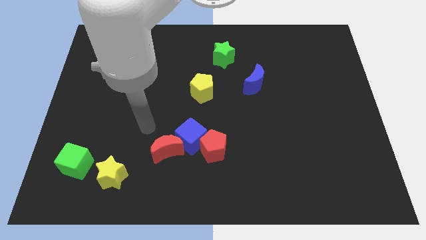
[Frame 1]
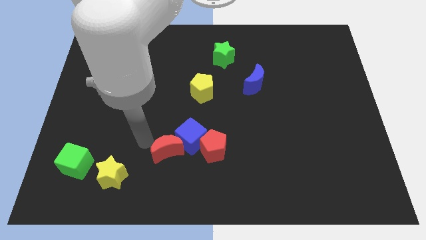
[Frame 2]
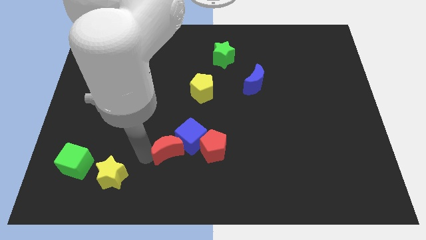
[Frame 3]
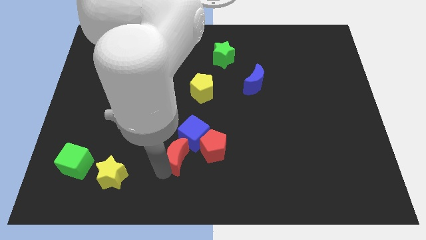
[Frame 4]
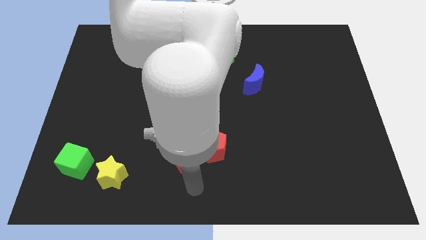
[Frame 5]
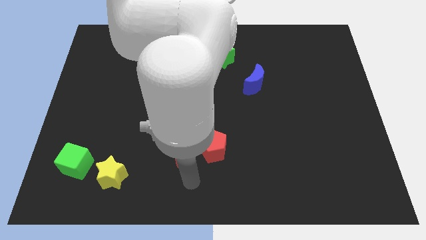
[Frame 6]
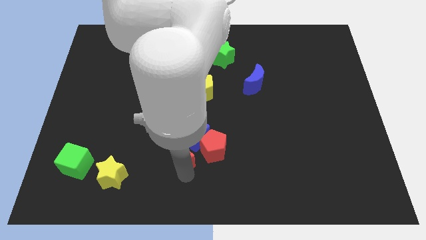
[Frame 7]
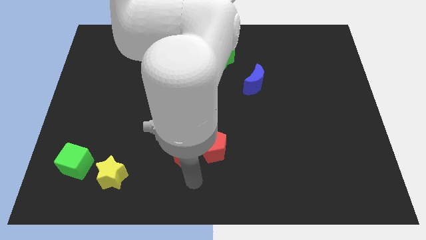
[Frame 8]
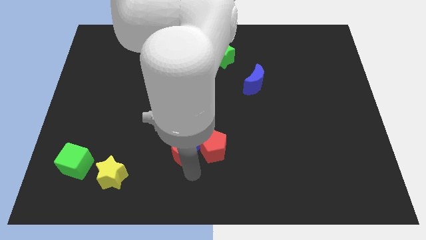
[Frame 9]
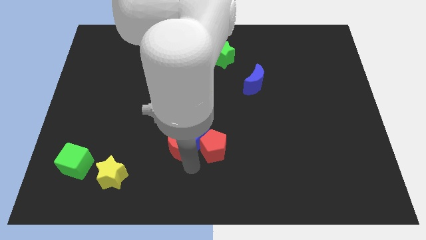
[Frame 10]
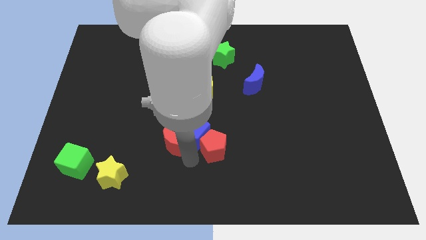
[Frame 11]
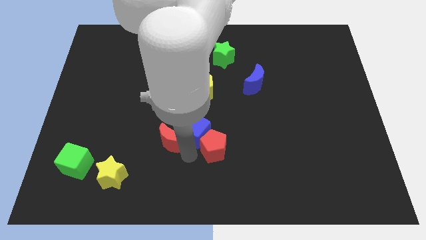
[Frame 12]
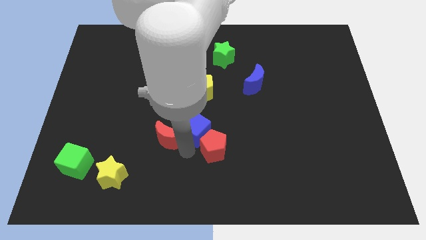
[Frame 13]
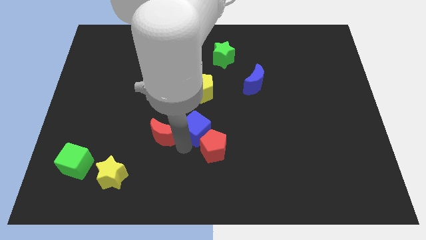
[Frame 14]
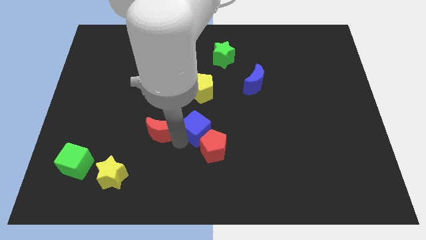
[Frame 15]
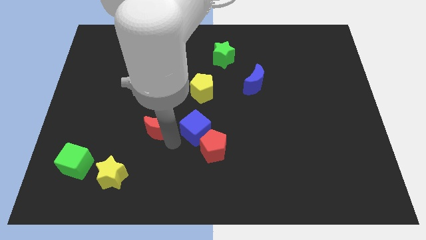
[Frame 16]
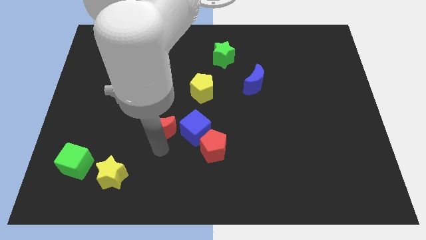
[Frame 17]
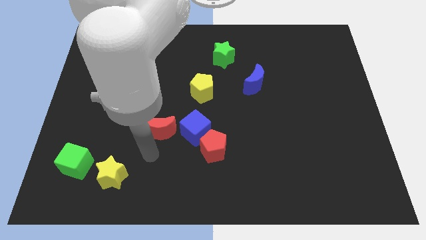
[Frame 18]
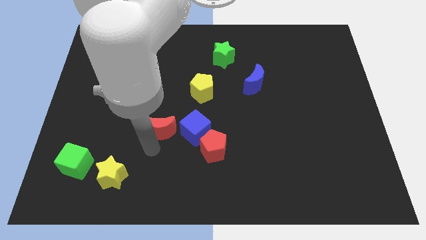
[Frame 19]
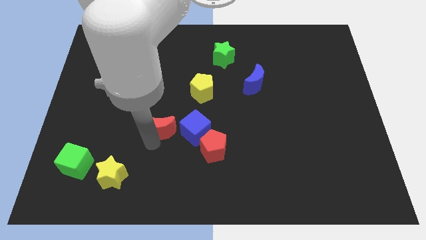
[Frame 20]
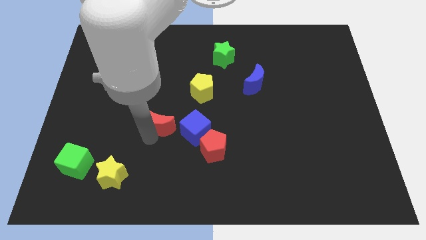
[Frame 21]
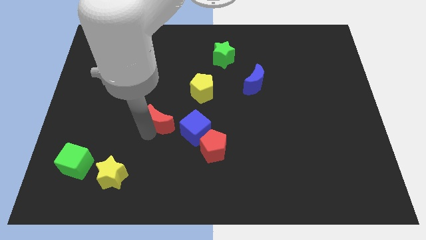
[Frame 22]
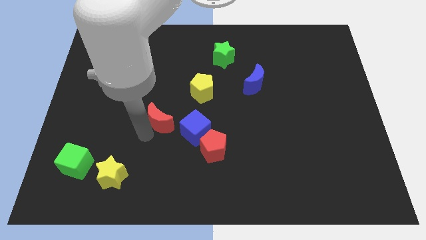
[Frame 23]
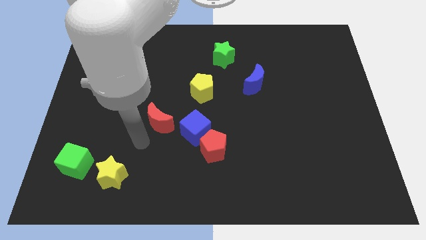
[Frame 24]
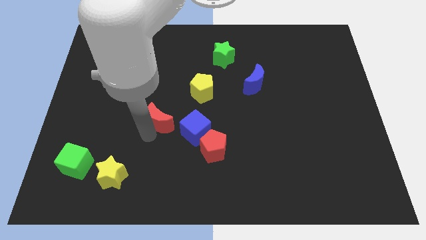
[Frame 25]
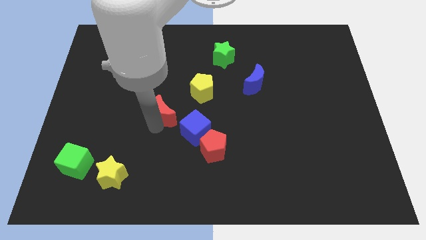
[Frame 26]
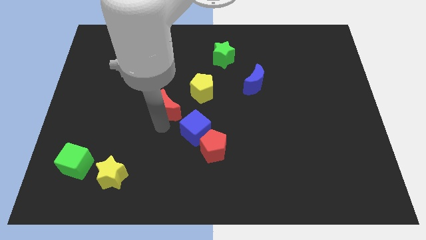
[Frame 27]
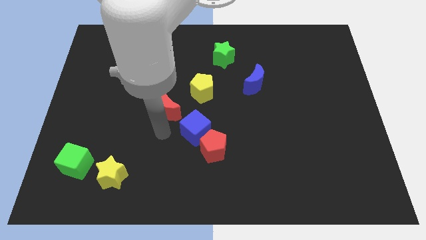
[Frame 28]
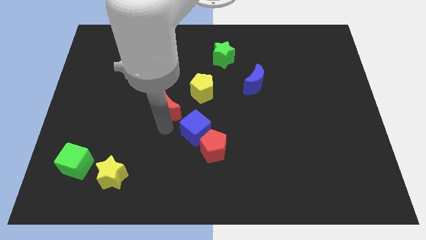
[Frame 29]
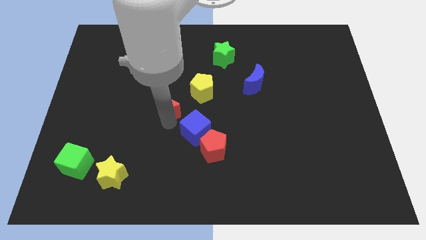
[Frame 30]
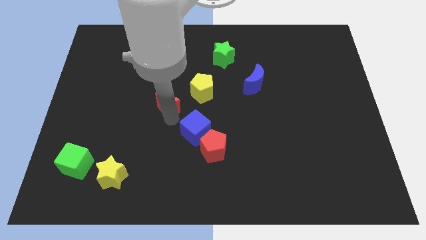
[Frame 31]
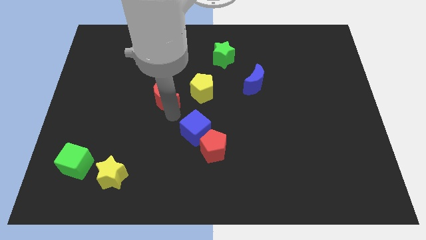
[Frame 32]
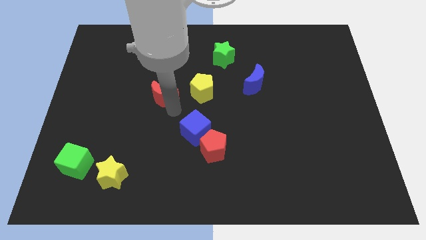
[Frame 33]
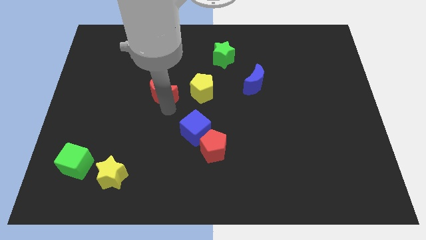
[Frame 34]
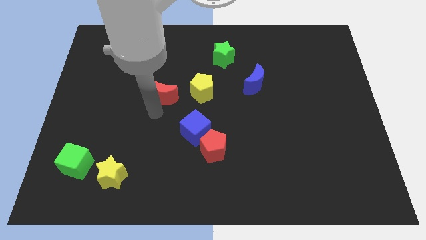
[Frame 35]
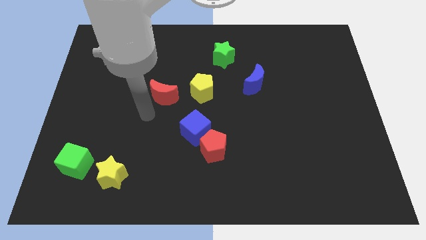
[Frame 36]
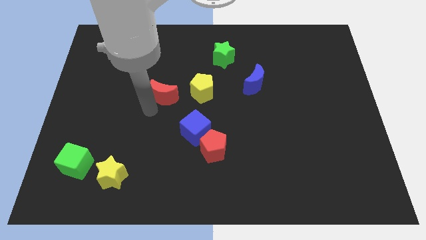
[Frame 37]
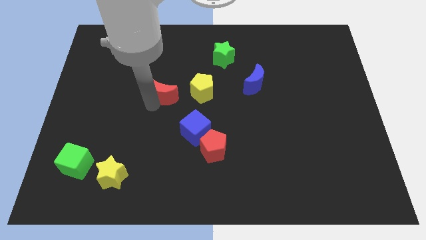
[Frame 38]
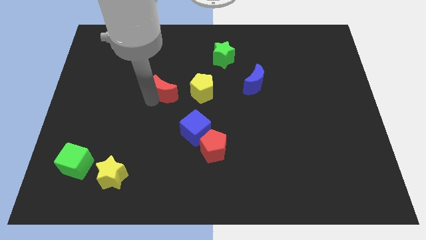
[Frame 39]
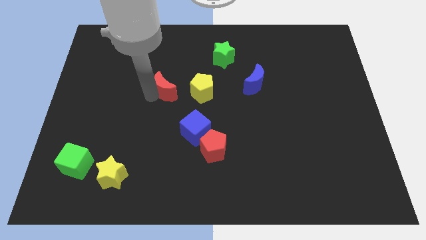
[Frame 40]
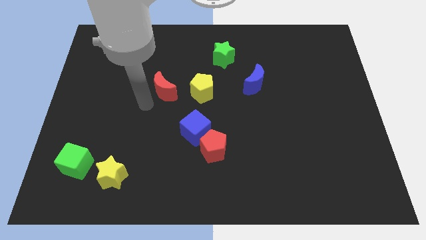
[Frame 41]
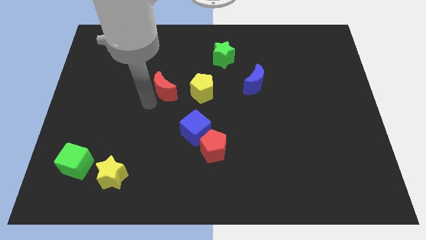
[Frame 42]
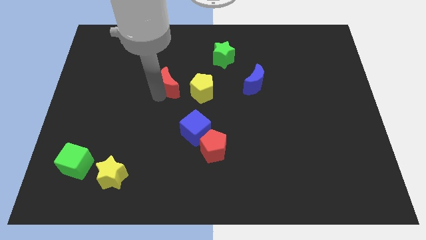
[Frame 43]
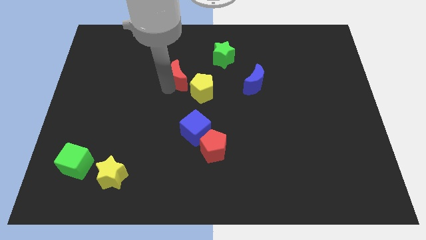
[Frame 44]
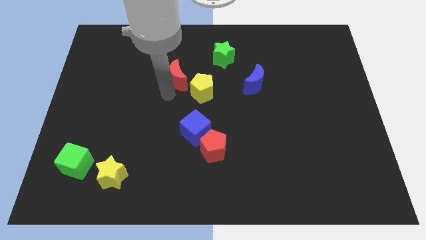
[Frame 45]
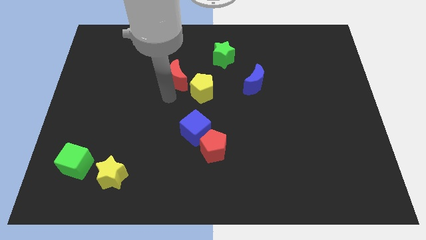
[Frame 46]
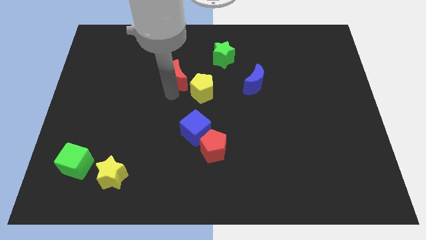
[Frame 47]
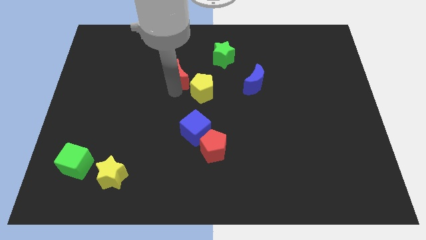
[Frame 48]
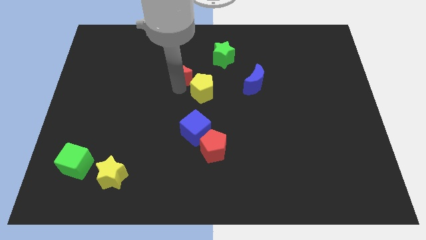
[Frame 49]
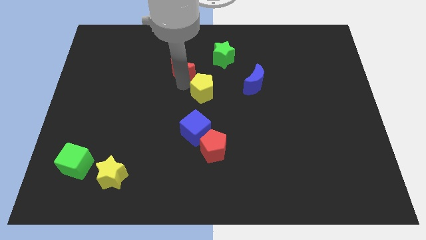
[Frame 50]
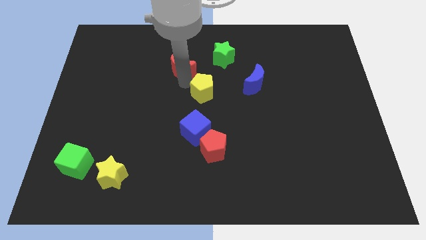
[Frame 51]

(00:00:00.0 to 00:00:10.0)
push the red moon to the left side of the green star

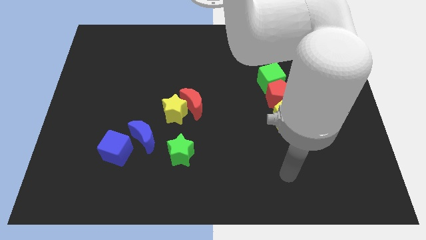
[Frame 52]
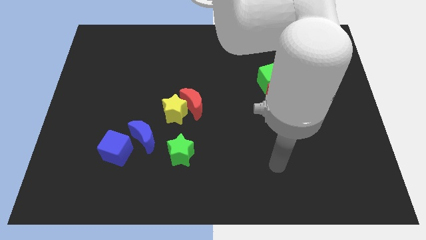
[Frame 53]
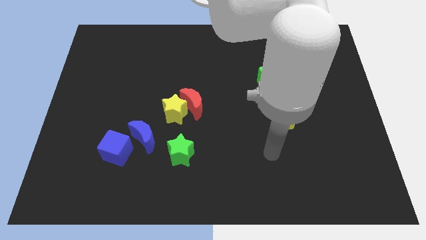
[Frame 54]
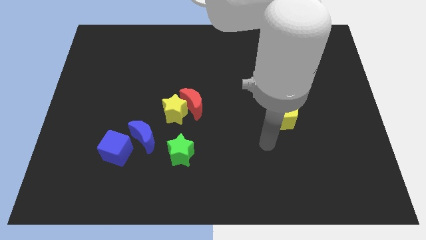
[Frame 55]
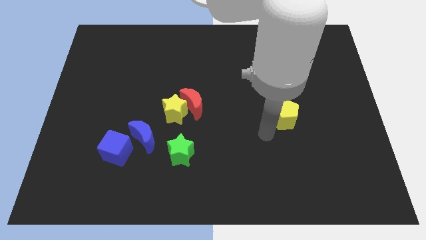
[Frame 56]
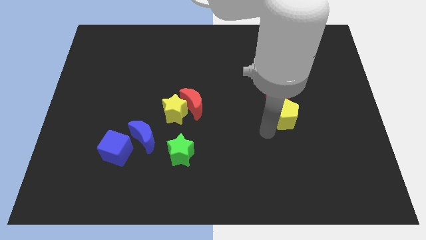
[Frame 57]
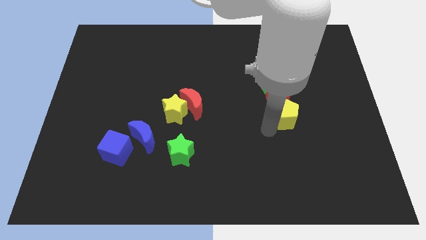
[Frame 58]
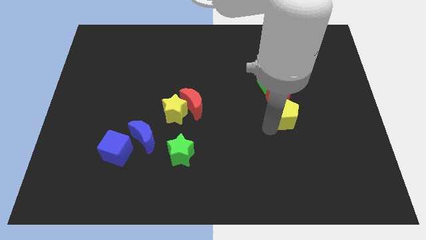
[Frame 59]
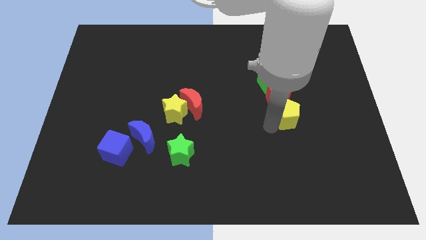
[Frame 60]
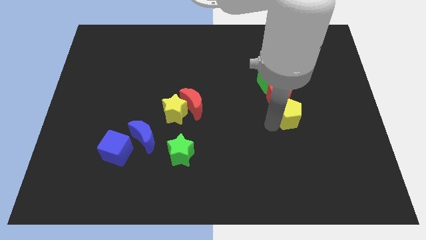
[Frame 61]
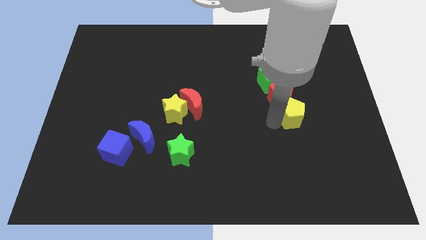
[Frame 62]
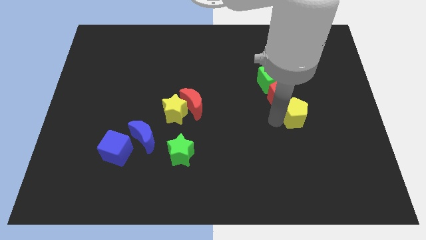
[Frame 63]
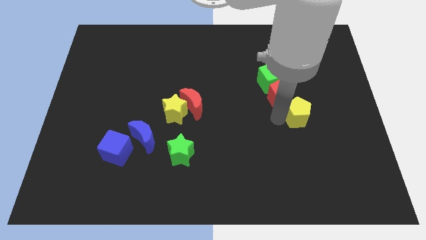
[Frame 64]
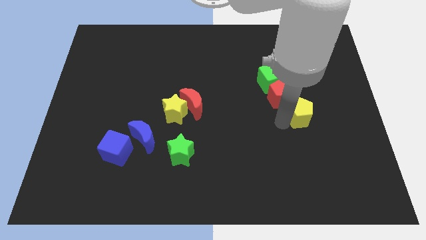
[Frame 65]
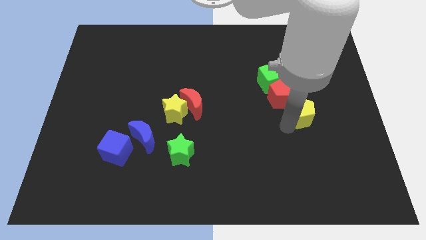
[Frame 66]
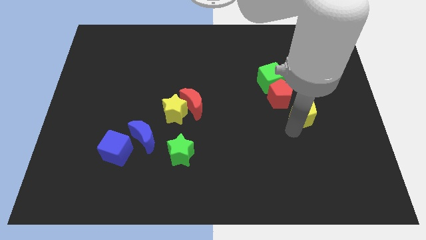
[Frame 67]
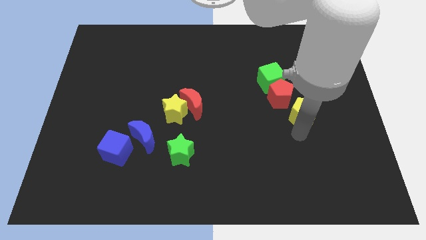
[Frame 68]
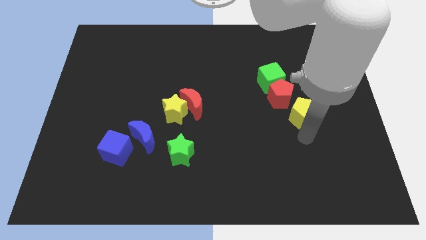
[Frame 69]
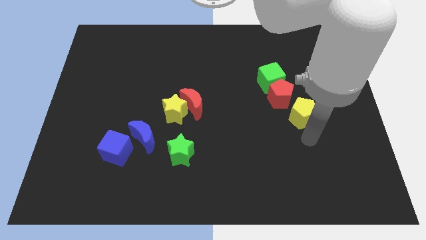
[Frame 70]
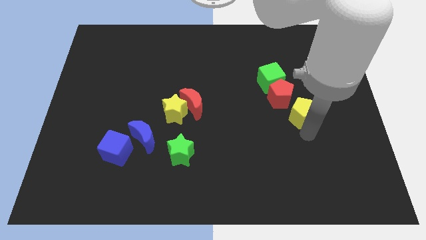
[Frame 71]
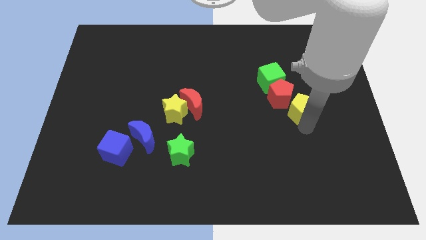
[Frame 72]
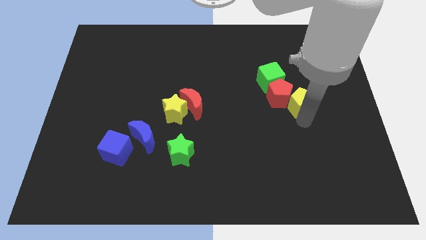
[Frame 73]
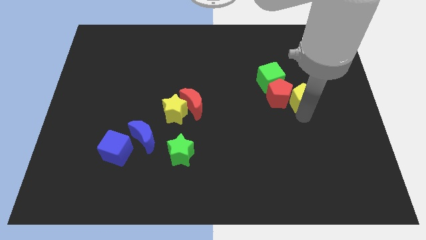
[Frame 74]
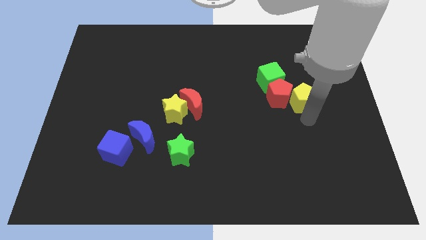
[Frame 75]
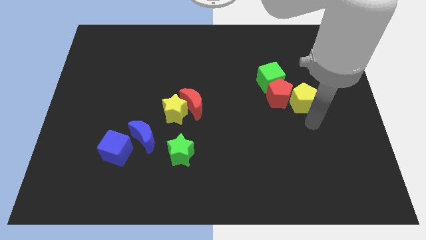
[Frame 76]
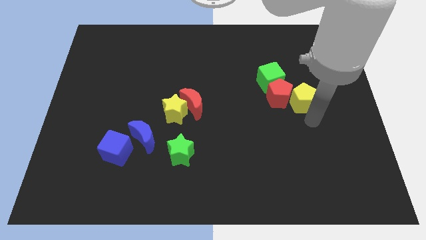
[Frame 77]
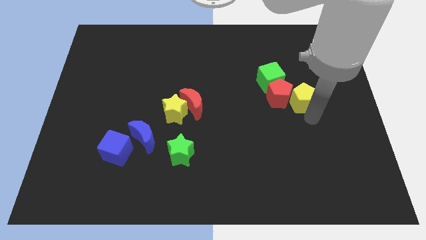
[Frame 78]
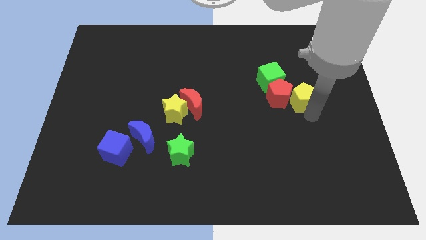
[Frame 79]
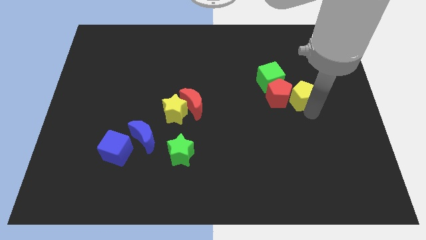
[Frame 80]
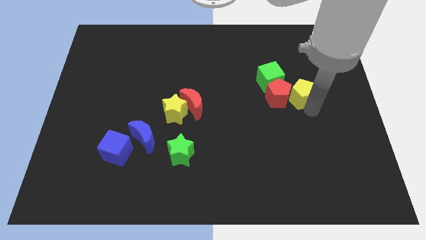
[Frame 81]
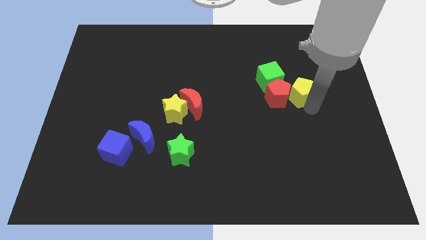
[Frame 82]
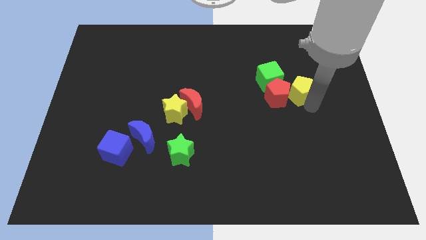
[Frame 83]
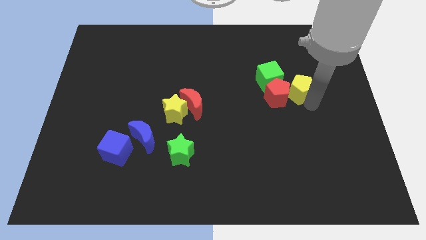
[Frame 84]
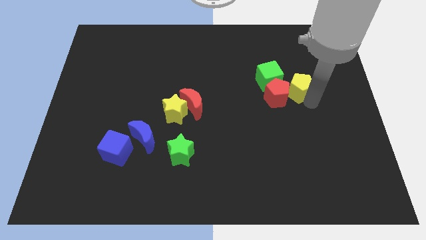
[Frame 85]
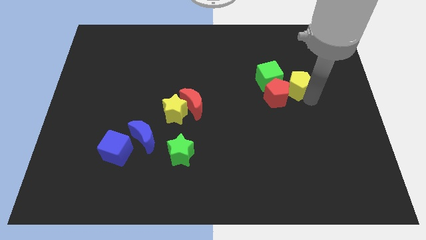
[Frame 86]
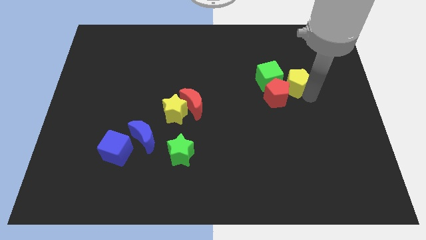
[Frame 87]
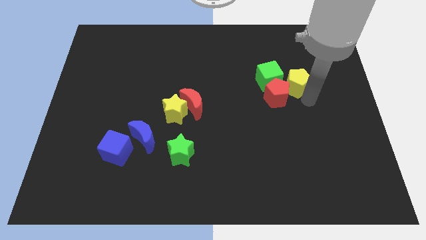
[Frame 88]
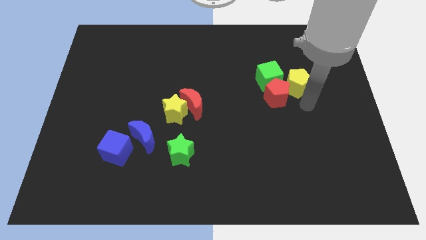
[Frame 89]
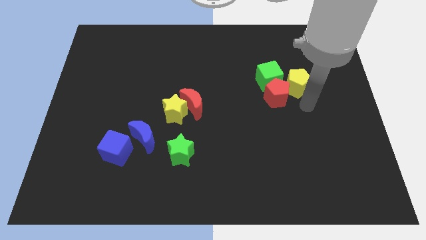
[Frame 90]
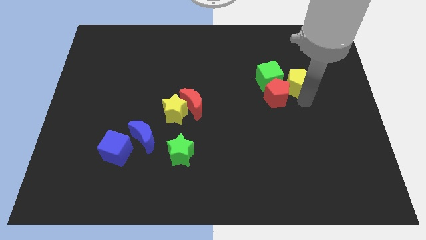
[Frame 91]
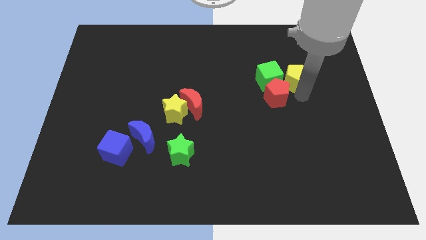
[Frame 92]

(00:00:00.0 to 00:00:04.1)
slide the yellow pentagon to the top right side of the green cube
